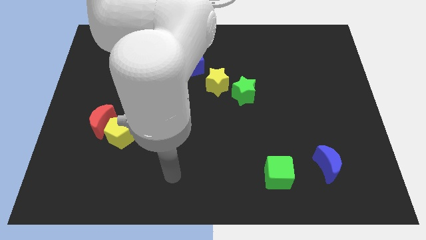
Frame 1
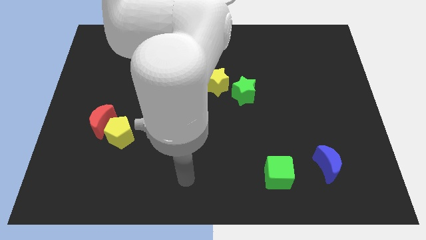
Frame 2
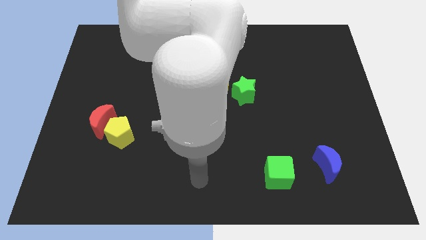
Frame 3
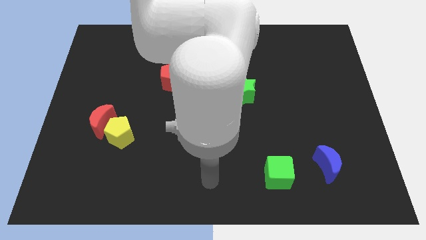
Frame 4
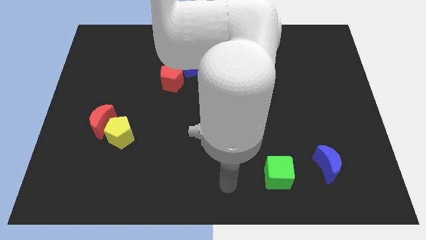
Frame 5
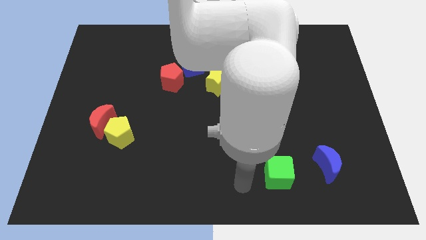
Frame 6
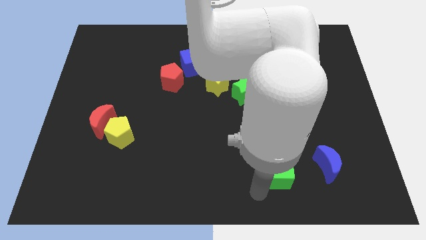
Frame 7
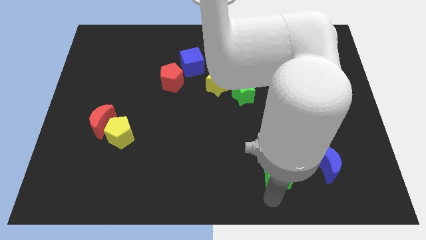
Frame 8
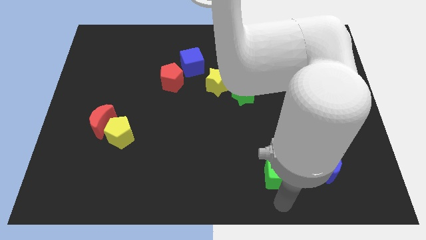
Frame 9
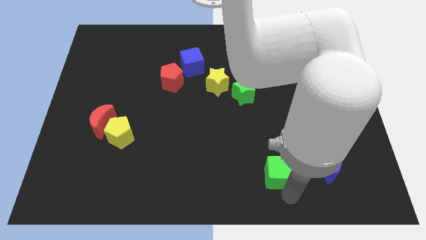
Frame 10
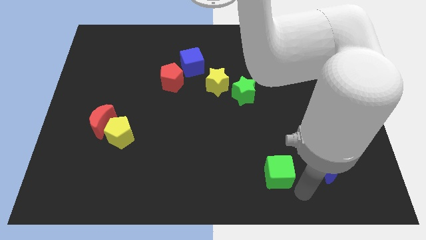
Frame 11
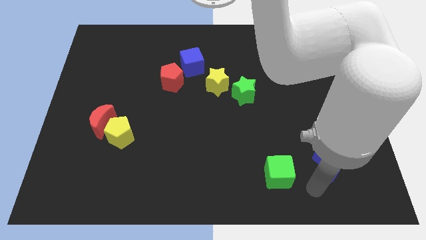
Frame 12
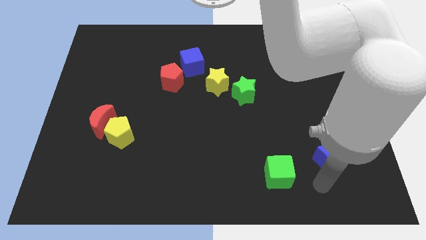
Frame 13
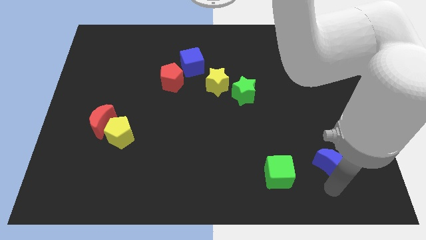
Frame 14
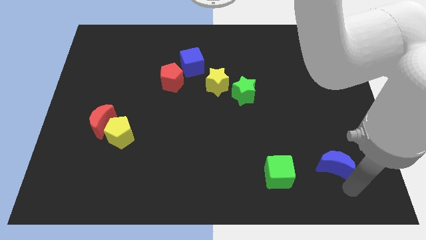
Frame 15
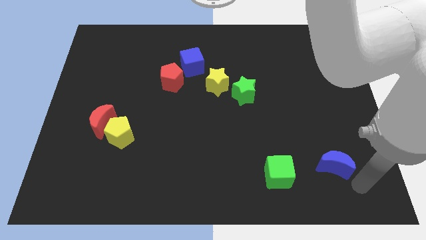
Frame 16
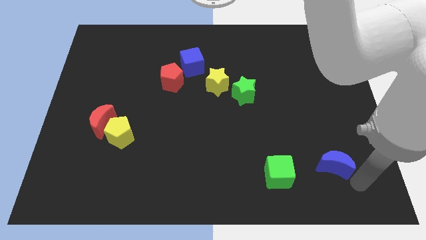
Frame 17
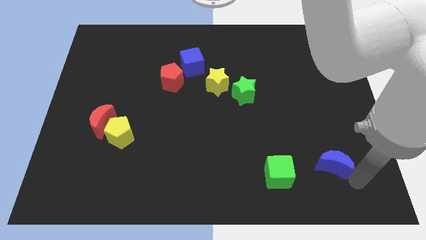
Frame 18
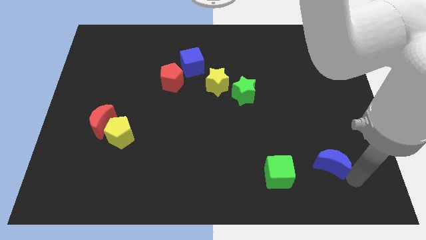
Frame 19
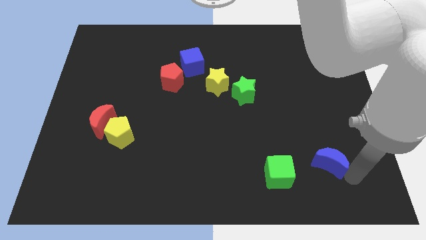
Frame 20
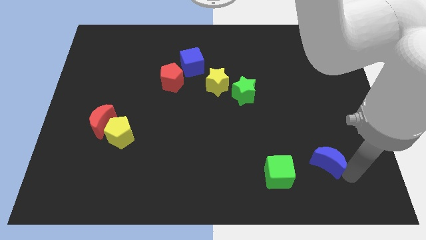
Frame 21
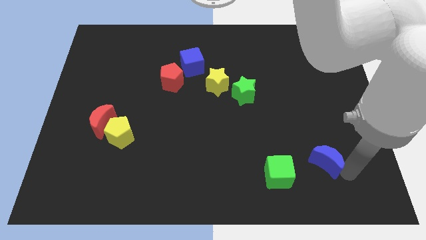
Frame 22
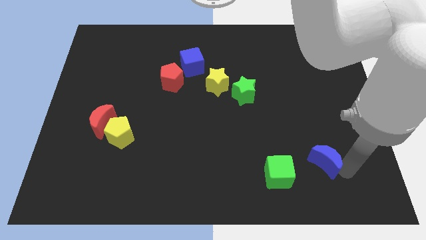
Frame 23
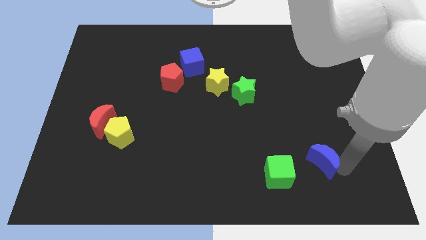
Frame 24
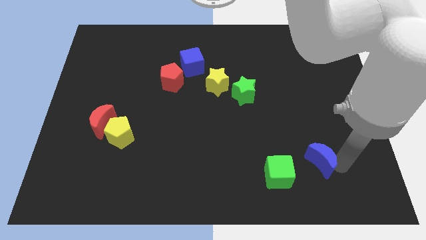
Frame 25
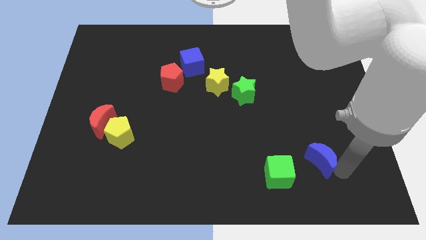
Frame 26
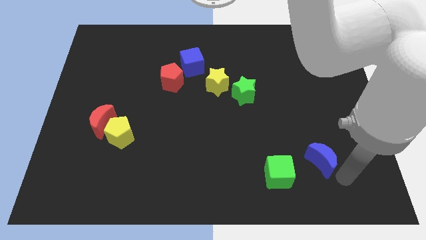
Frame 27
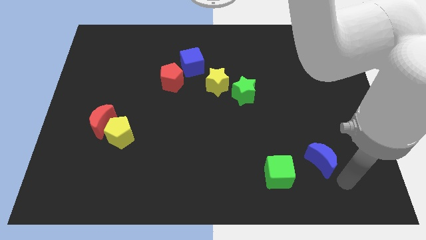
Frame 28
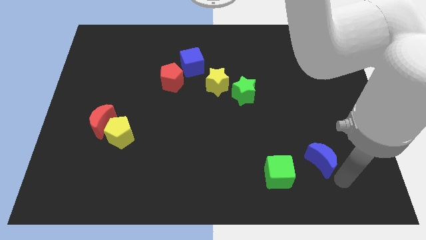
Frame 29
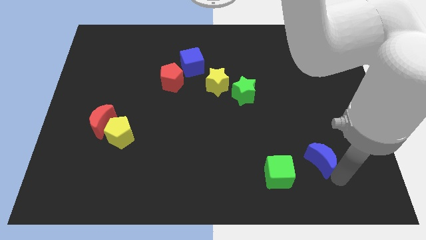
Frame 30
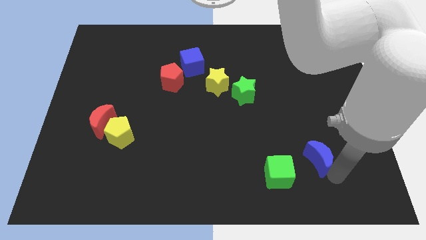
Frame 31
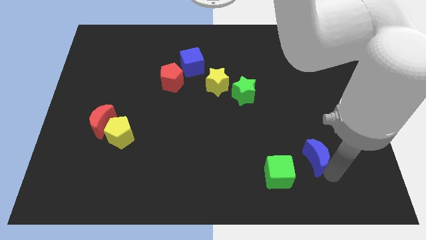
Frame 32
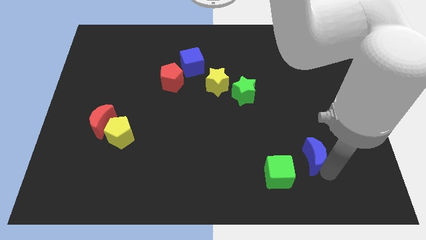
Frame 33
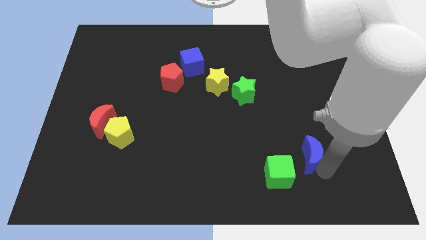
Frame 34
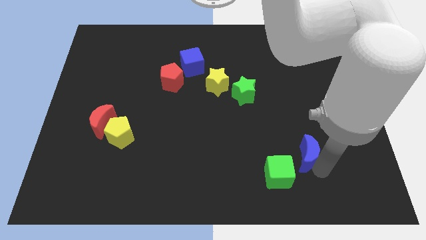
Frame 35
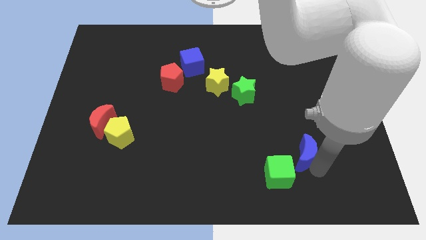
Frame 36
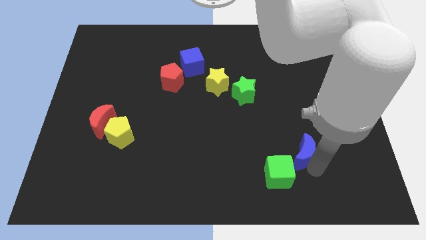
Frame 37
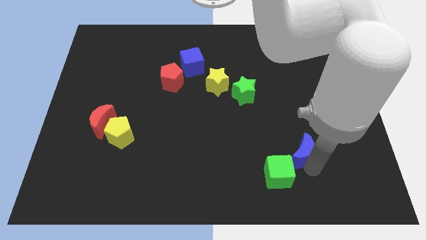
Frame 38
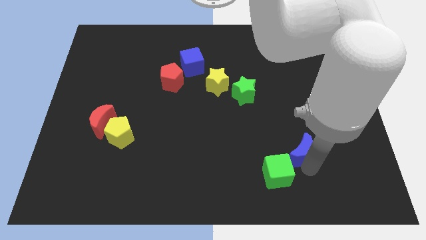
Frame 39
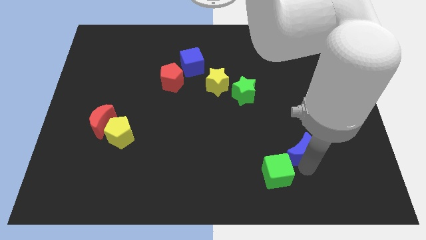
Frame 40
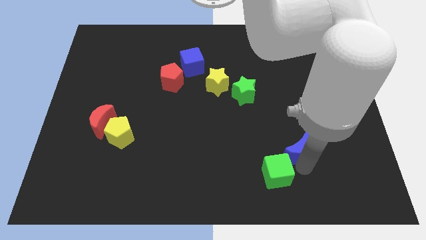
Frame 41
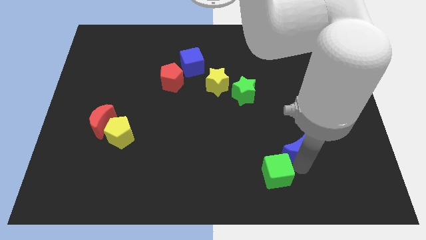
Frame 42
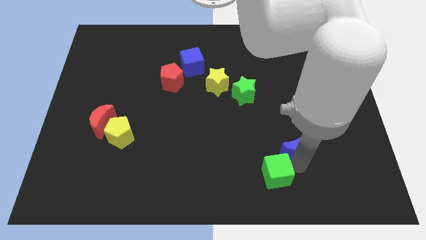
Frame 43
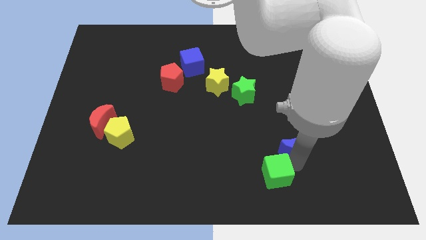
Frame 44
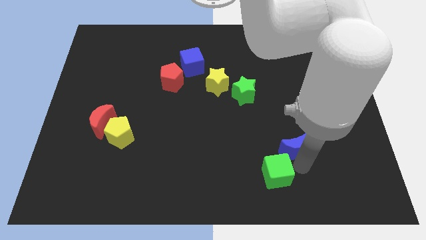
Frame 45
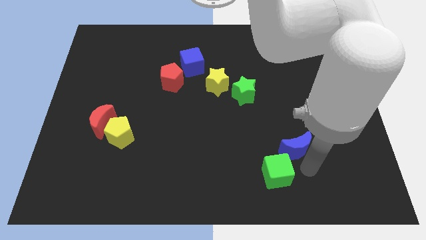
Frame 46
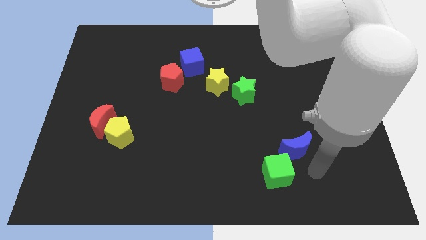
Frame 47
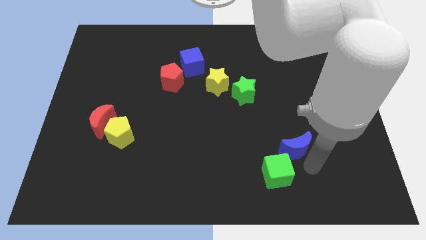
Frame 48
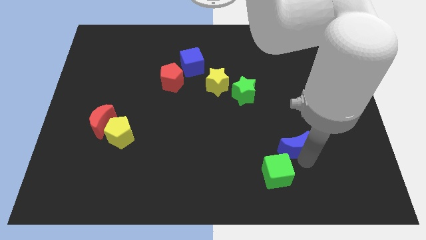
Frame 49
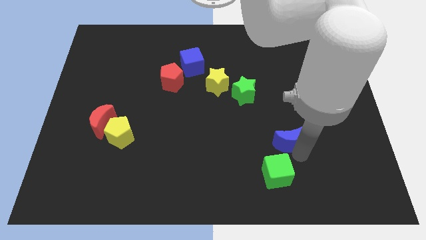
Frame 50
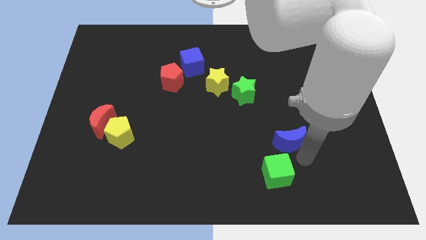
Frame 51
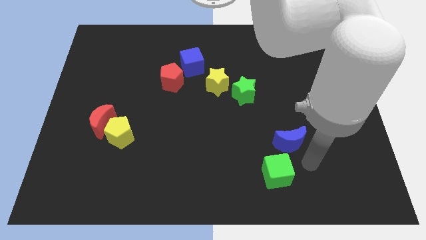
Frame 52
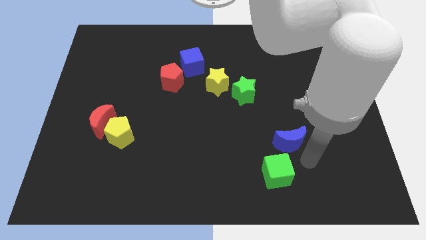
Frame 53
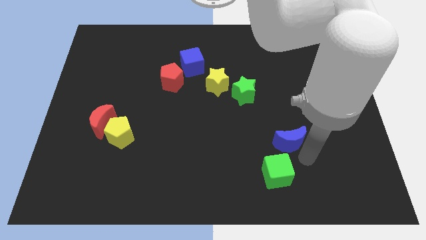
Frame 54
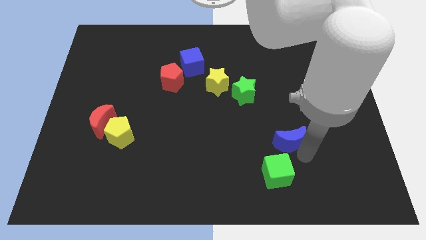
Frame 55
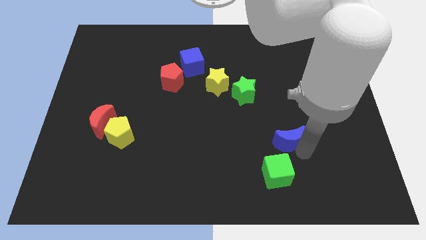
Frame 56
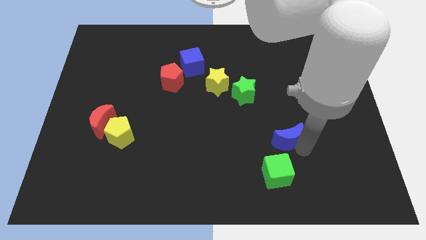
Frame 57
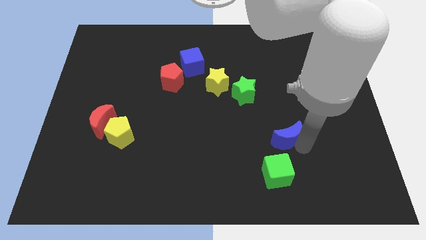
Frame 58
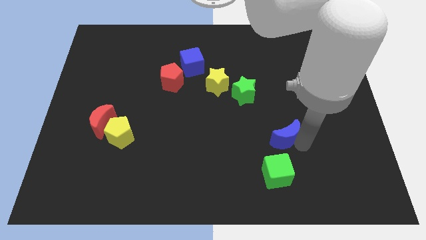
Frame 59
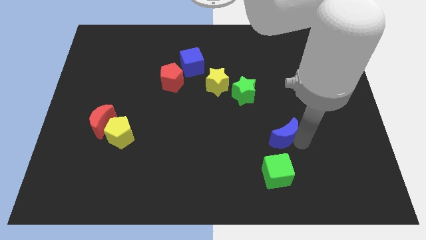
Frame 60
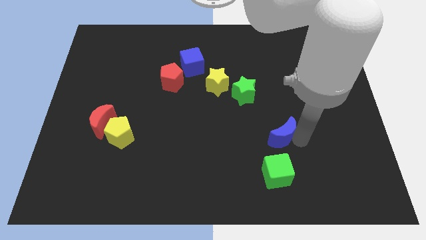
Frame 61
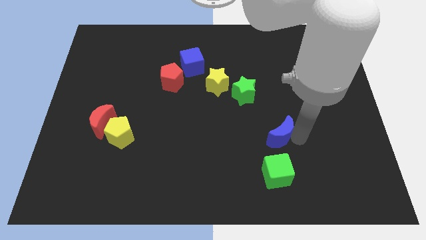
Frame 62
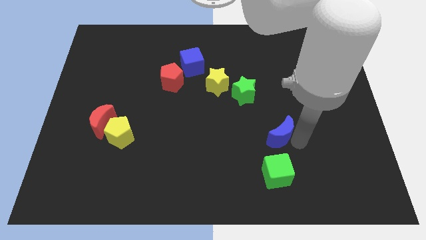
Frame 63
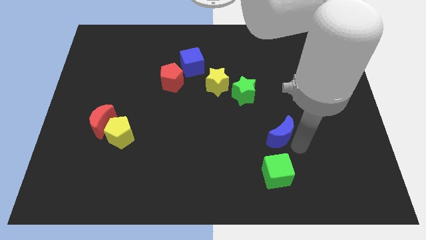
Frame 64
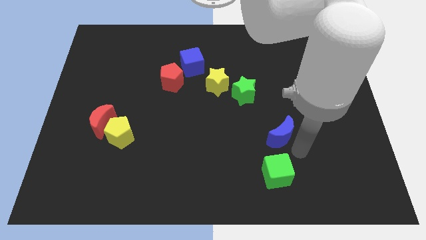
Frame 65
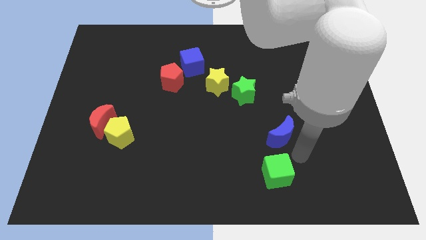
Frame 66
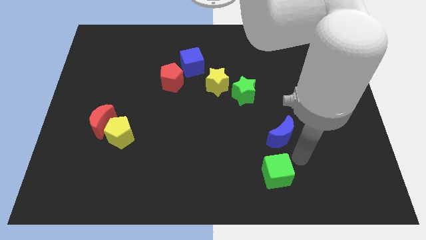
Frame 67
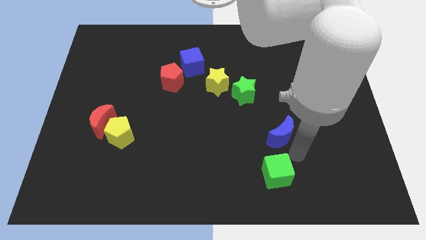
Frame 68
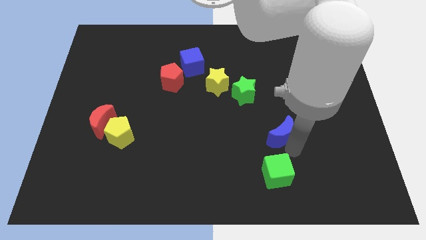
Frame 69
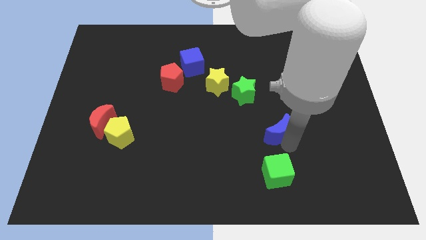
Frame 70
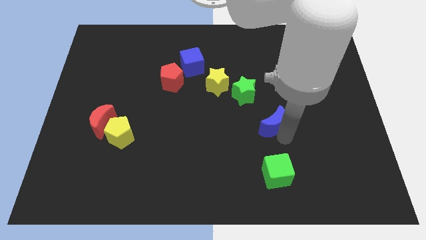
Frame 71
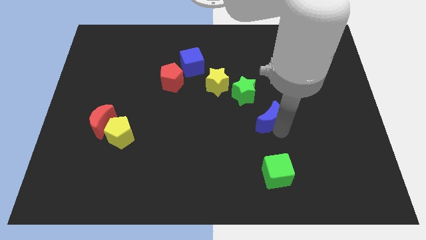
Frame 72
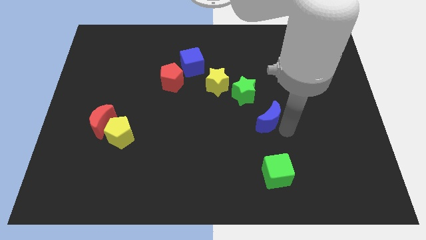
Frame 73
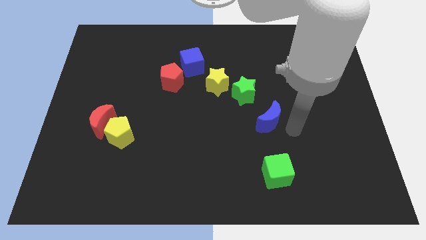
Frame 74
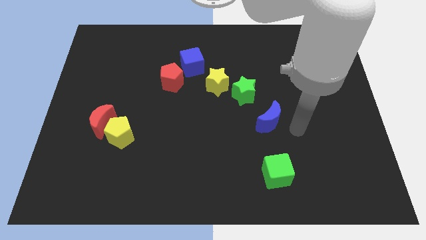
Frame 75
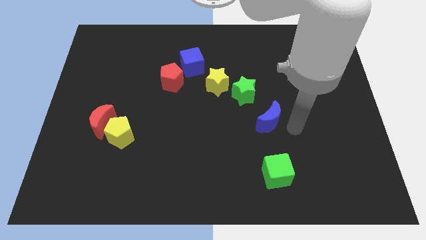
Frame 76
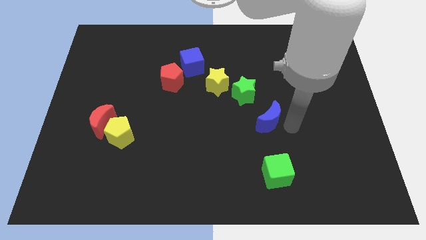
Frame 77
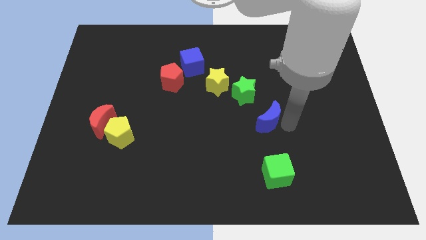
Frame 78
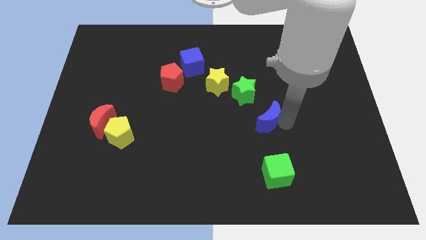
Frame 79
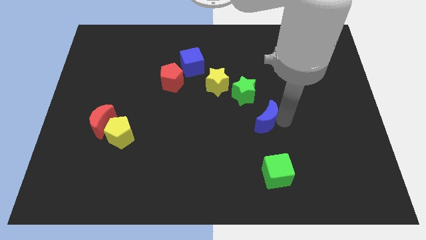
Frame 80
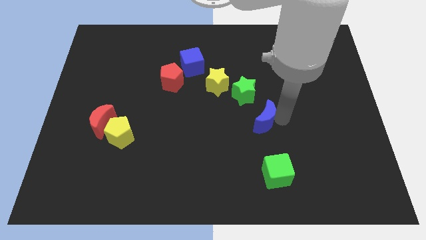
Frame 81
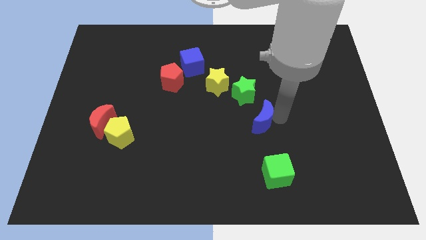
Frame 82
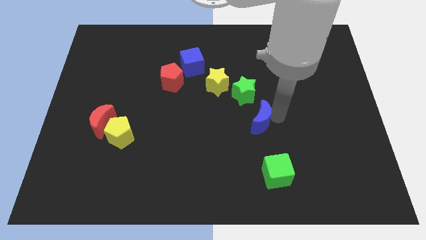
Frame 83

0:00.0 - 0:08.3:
slide the blue moon to the middle
